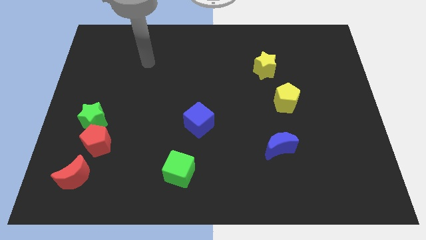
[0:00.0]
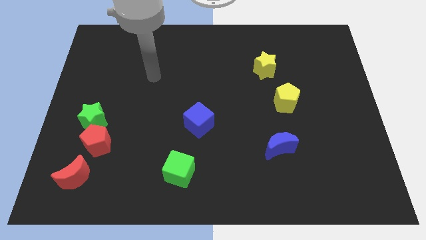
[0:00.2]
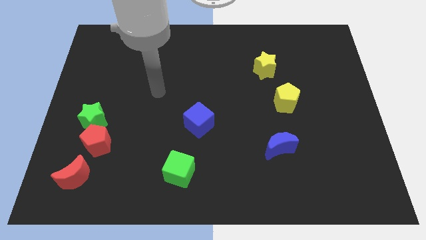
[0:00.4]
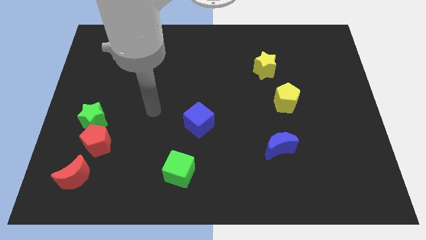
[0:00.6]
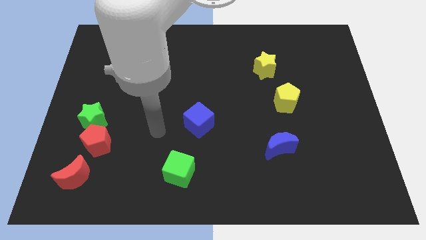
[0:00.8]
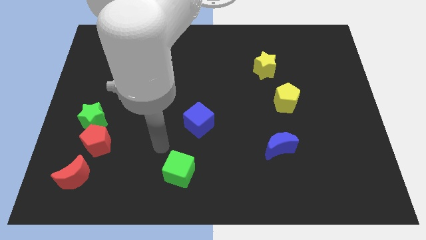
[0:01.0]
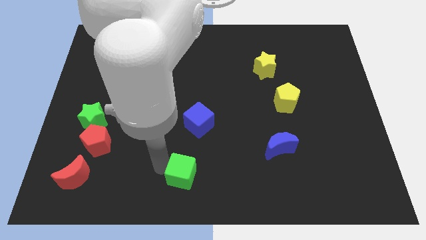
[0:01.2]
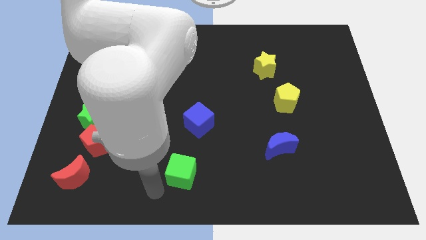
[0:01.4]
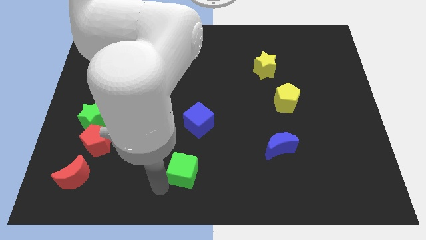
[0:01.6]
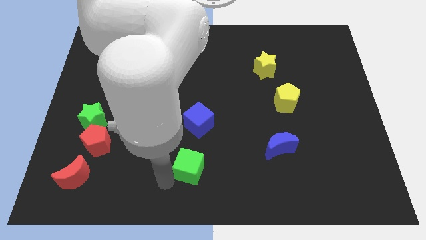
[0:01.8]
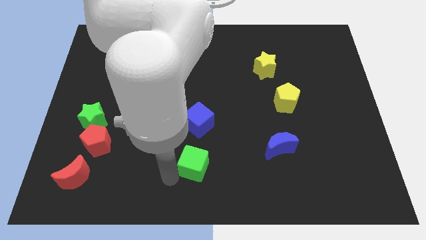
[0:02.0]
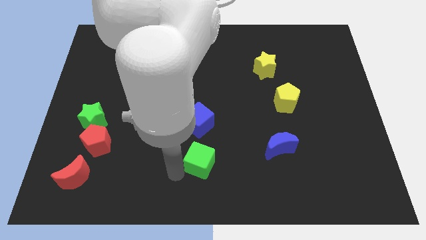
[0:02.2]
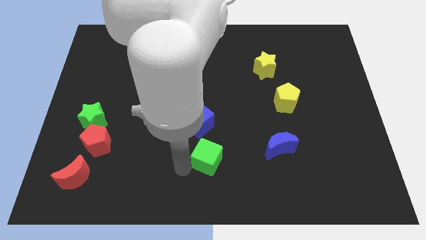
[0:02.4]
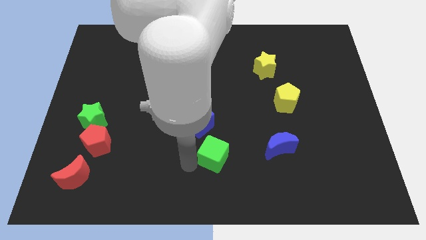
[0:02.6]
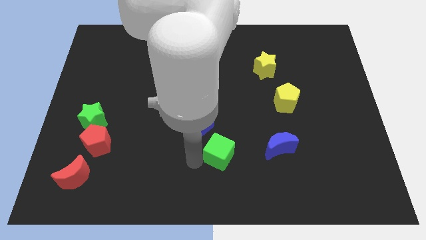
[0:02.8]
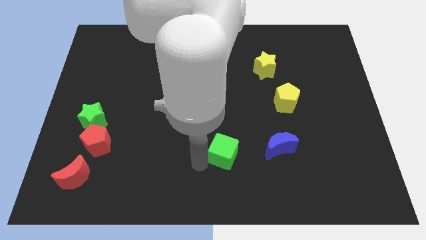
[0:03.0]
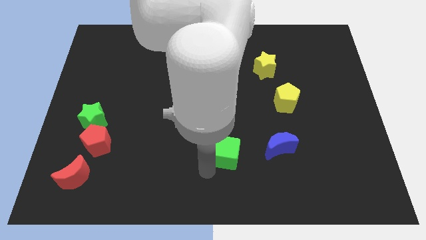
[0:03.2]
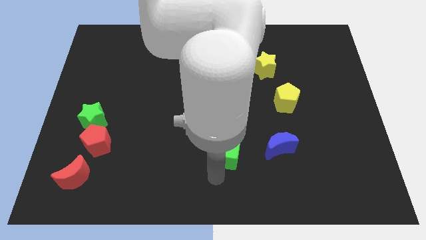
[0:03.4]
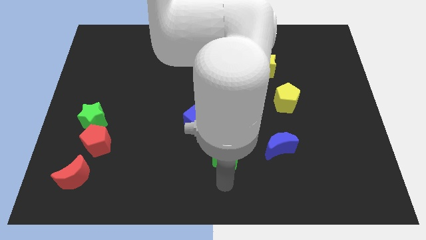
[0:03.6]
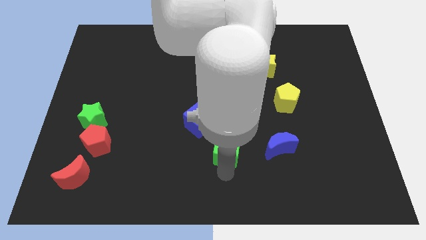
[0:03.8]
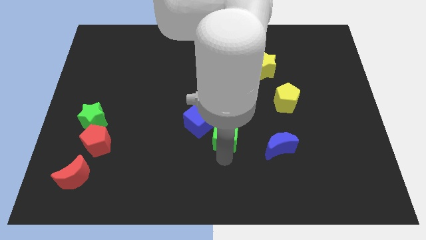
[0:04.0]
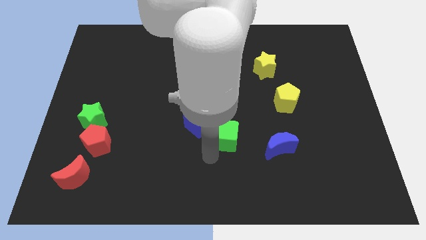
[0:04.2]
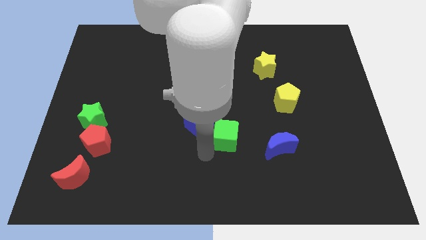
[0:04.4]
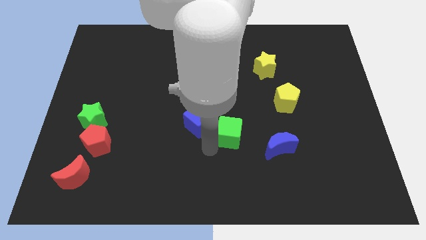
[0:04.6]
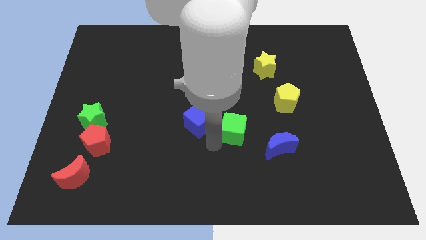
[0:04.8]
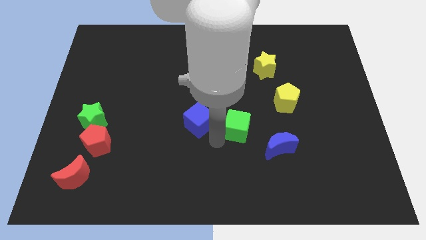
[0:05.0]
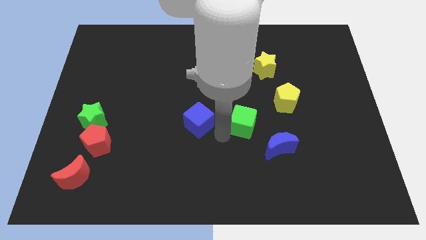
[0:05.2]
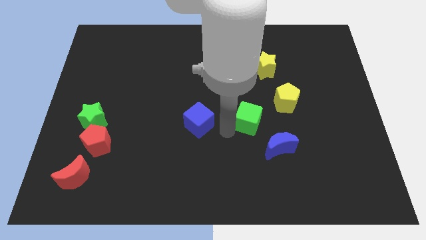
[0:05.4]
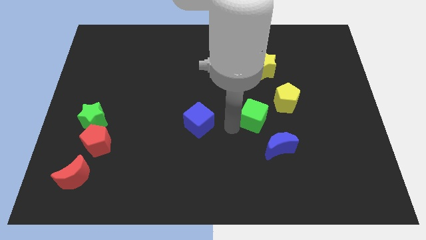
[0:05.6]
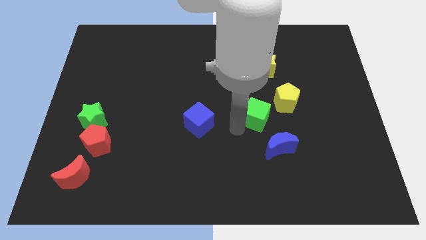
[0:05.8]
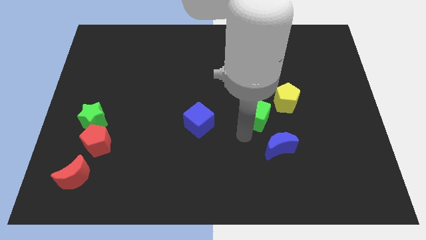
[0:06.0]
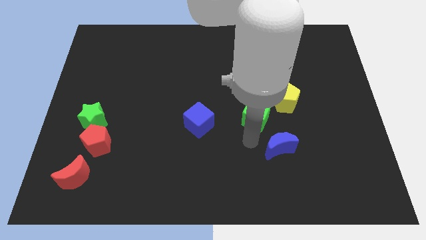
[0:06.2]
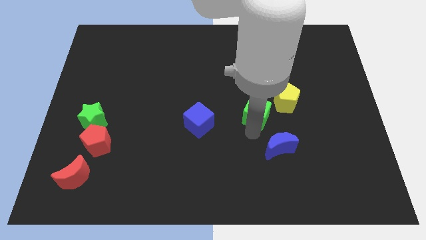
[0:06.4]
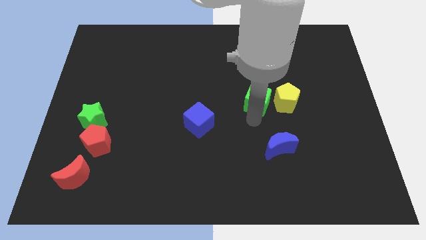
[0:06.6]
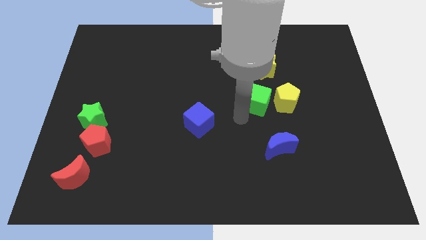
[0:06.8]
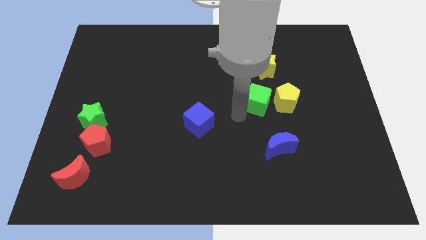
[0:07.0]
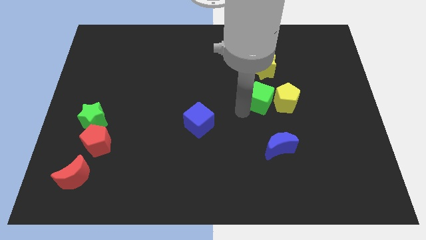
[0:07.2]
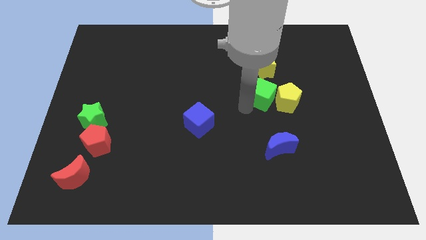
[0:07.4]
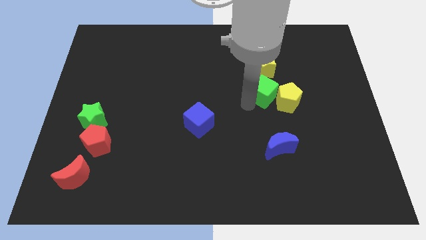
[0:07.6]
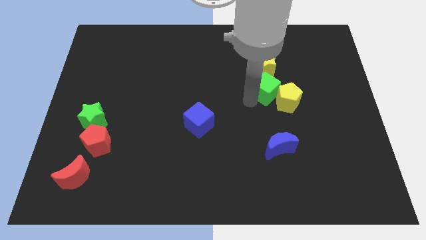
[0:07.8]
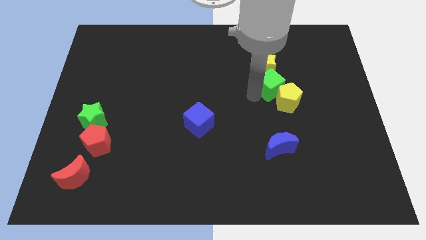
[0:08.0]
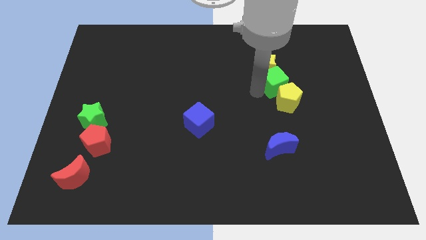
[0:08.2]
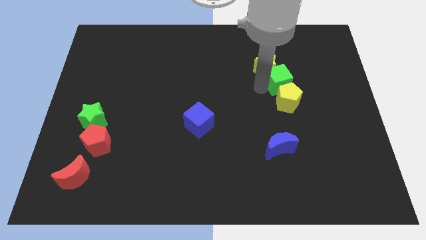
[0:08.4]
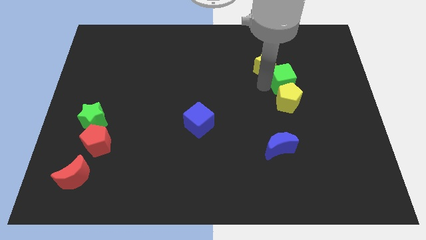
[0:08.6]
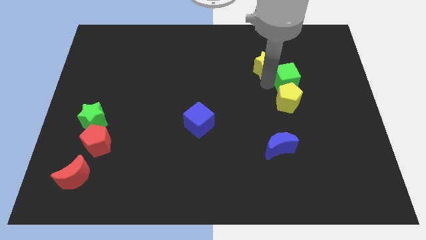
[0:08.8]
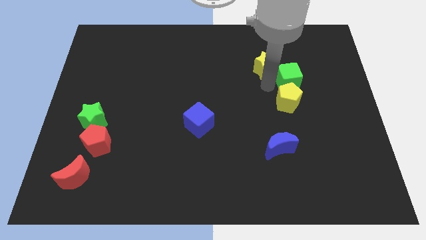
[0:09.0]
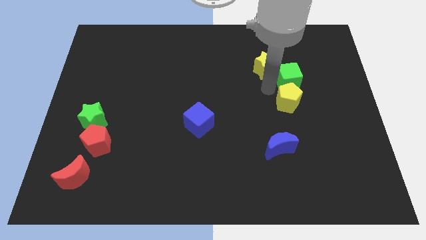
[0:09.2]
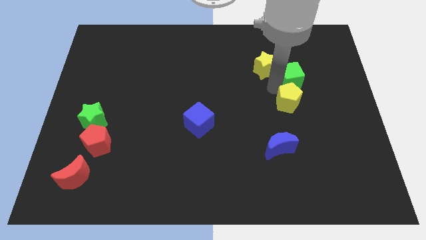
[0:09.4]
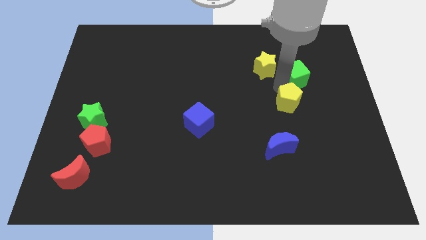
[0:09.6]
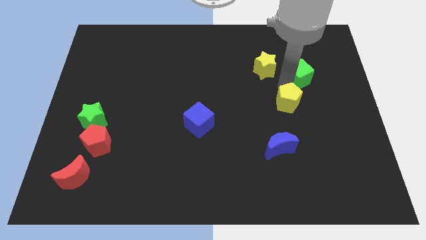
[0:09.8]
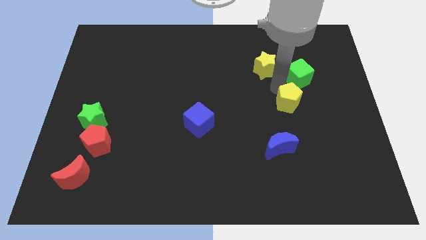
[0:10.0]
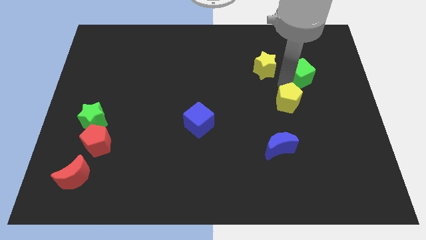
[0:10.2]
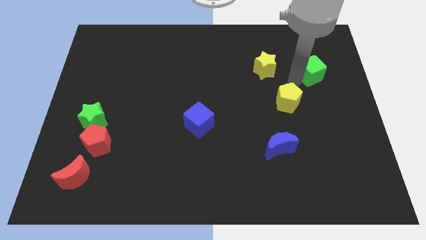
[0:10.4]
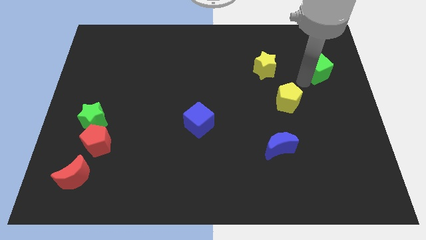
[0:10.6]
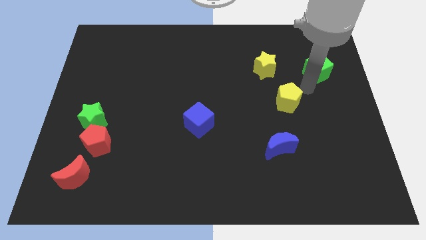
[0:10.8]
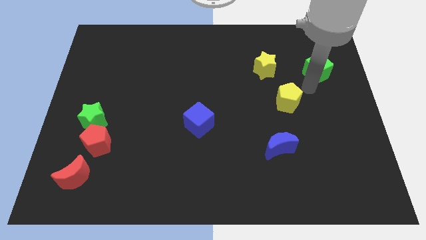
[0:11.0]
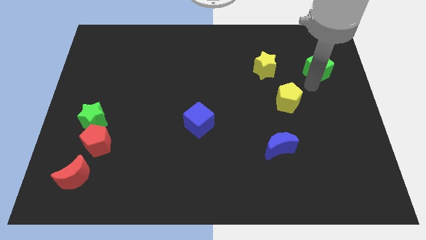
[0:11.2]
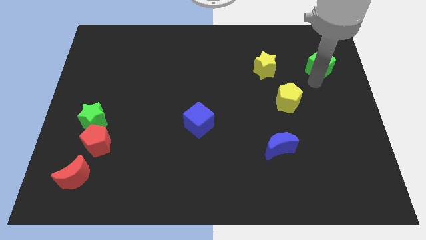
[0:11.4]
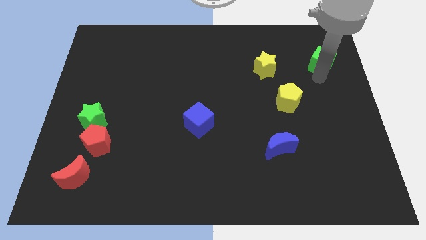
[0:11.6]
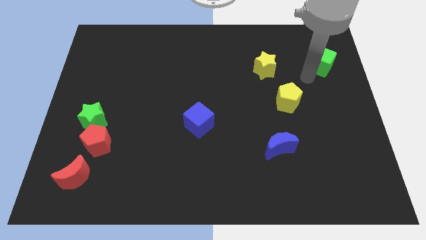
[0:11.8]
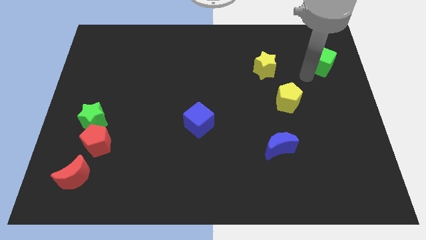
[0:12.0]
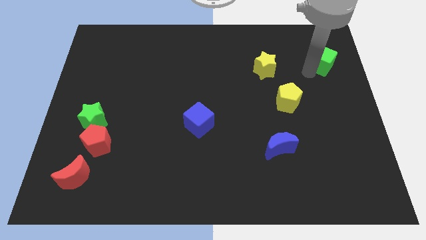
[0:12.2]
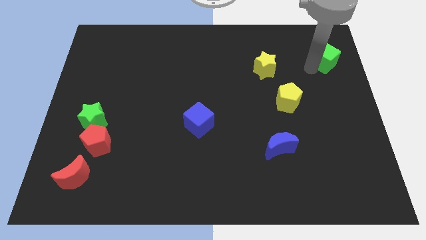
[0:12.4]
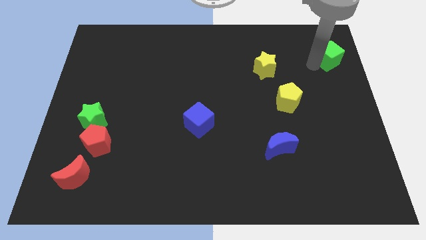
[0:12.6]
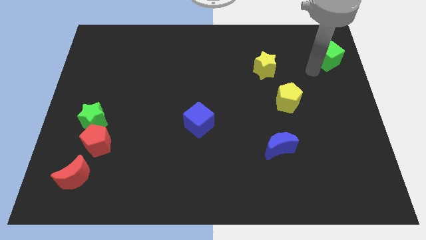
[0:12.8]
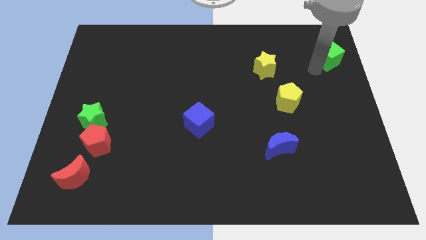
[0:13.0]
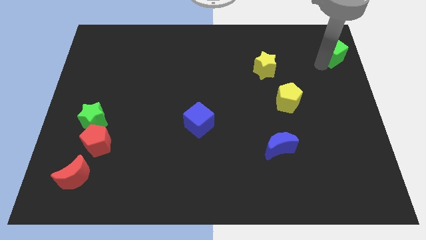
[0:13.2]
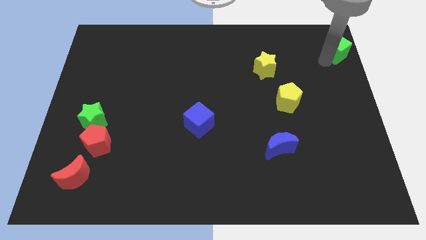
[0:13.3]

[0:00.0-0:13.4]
slide the green cube to the upper right corner
